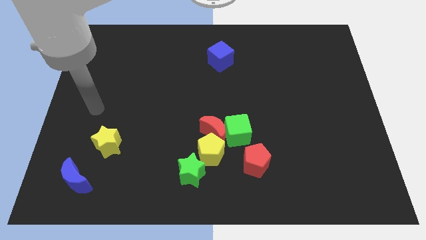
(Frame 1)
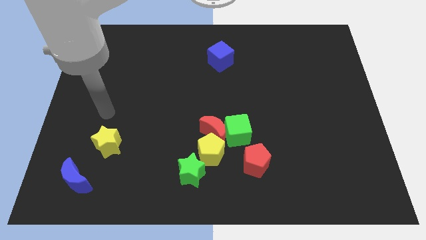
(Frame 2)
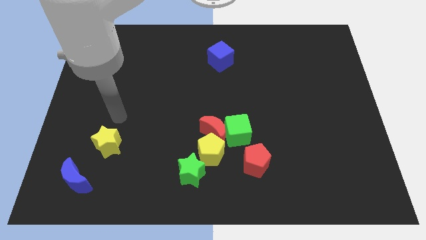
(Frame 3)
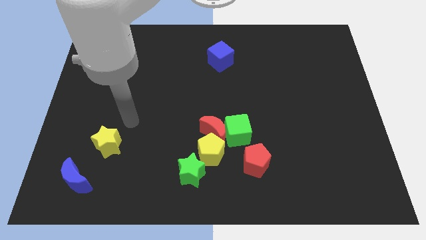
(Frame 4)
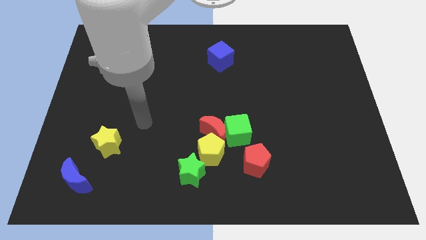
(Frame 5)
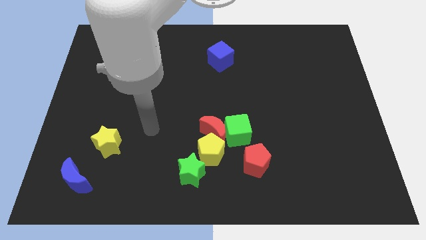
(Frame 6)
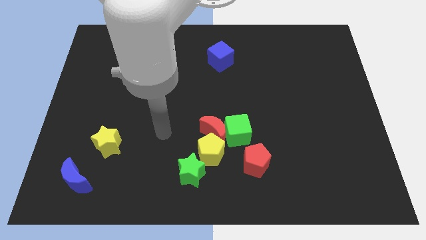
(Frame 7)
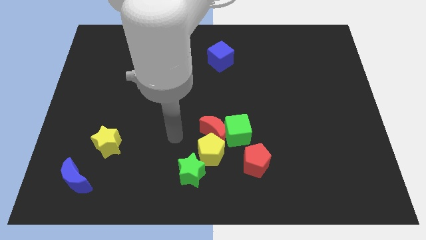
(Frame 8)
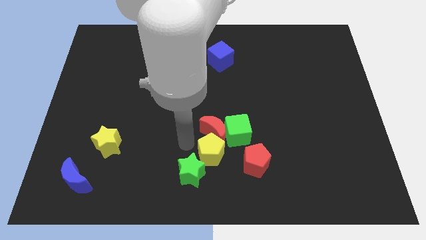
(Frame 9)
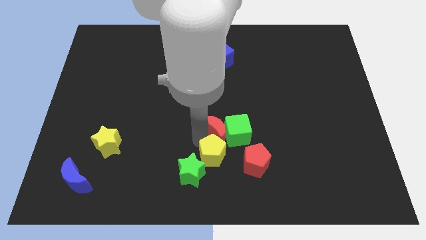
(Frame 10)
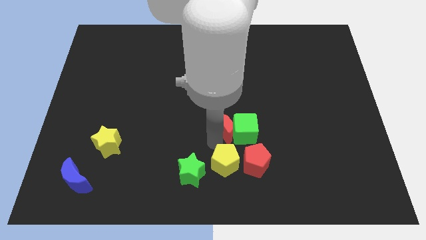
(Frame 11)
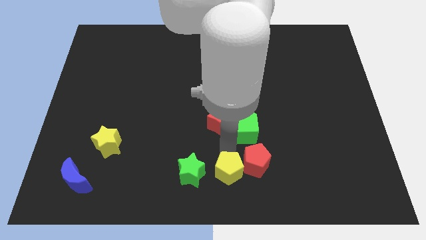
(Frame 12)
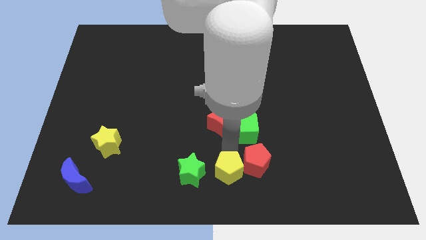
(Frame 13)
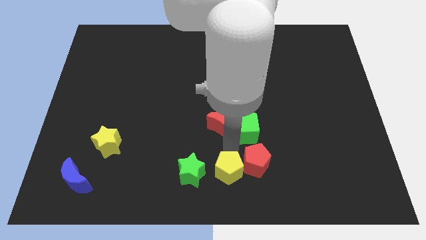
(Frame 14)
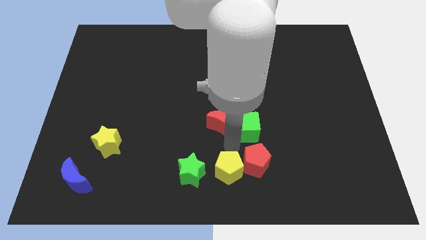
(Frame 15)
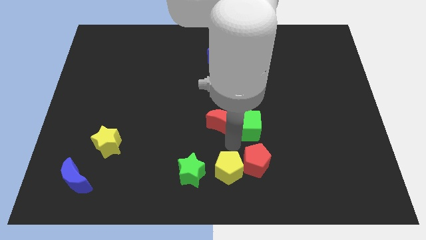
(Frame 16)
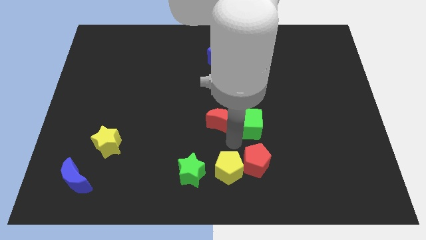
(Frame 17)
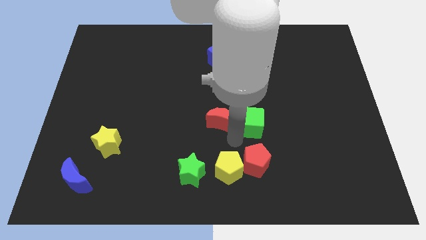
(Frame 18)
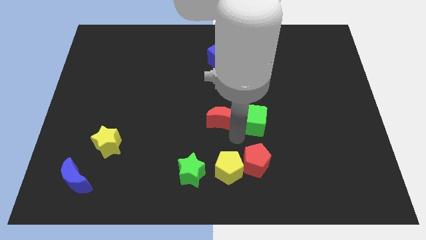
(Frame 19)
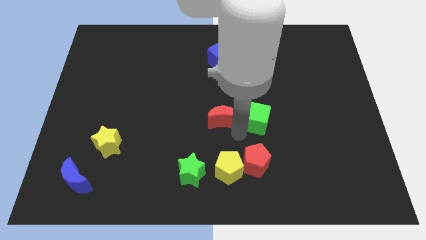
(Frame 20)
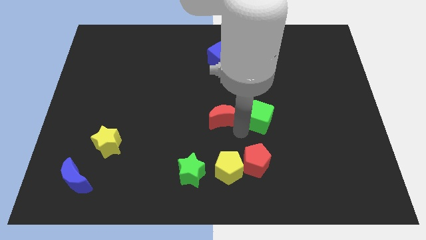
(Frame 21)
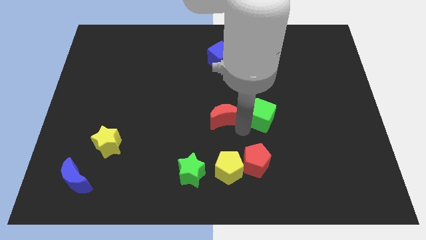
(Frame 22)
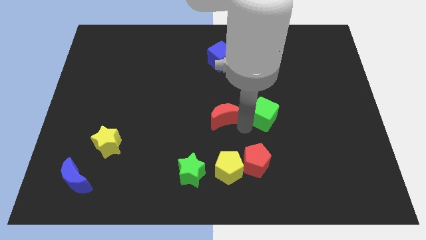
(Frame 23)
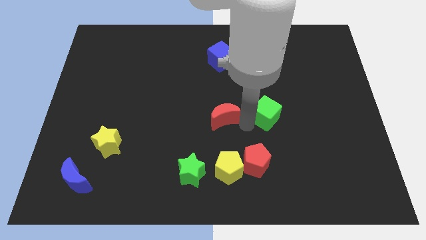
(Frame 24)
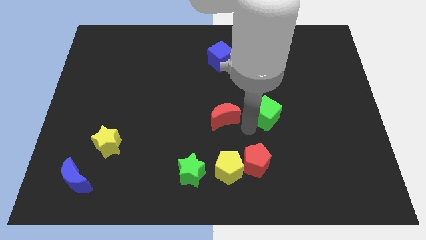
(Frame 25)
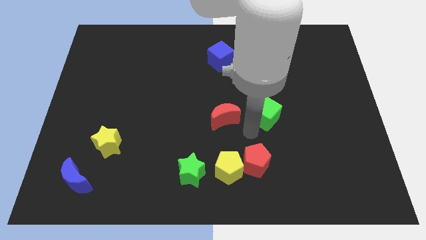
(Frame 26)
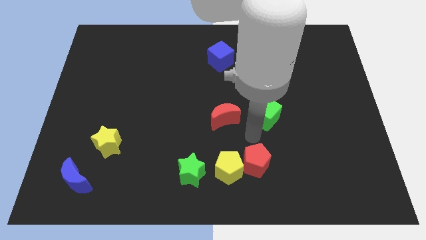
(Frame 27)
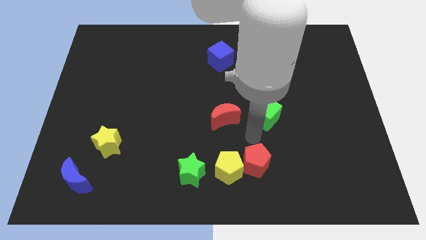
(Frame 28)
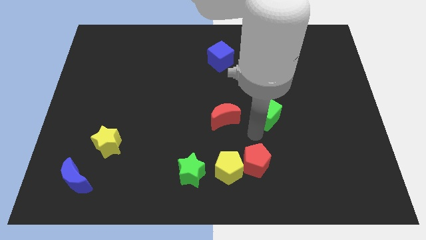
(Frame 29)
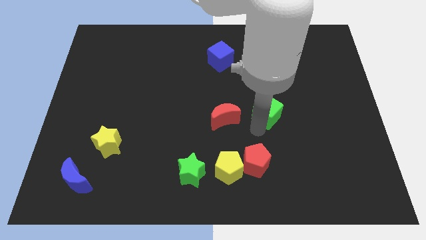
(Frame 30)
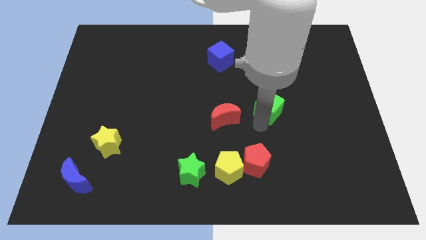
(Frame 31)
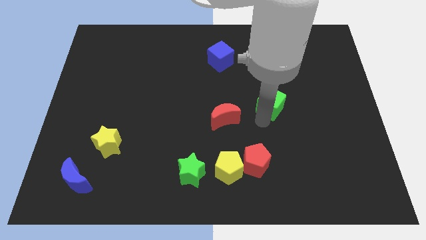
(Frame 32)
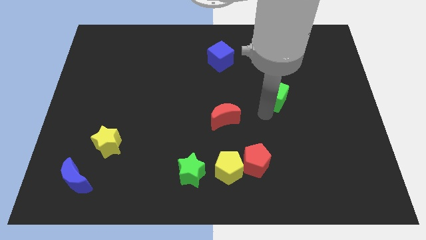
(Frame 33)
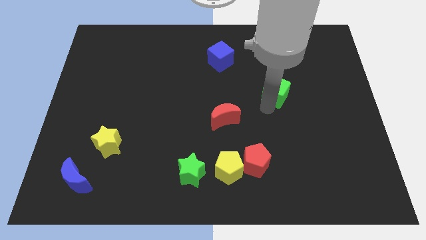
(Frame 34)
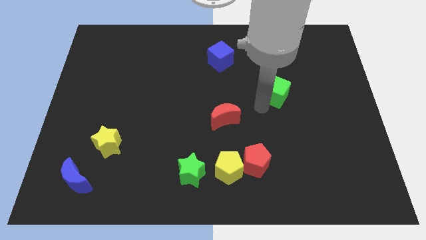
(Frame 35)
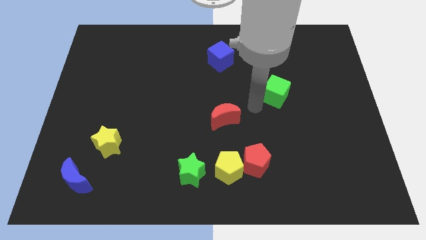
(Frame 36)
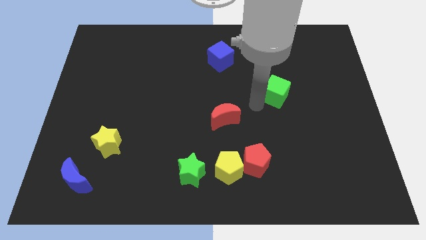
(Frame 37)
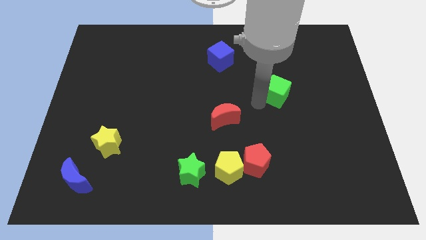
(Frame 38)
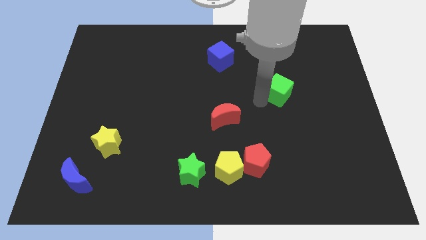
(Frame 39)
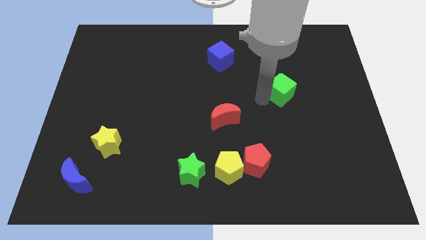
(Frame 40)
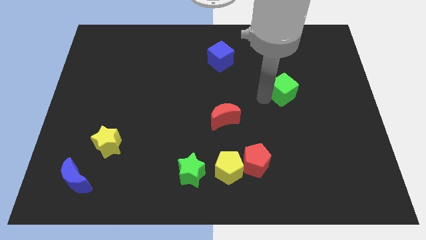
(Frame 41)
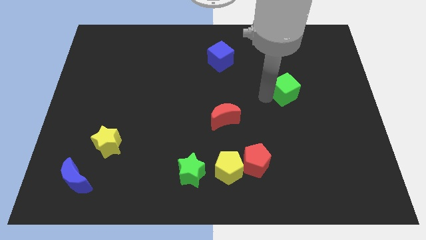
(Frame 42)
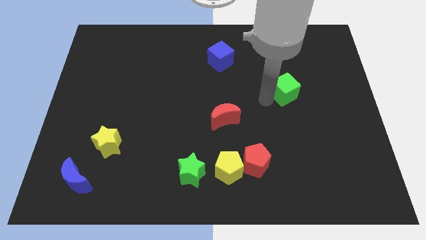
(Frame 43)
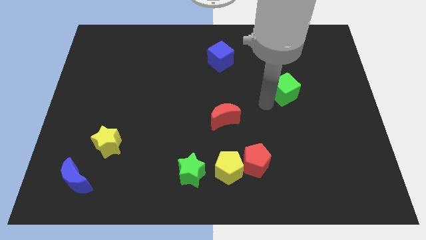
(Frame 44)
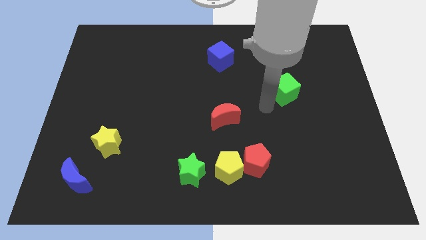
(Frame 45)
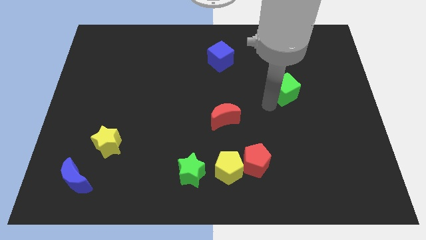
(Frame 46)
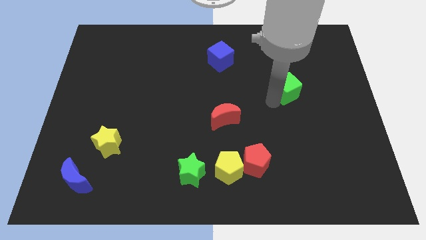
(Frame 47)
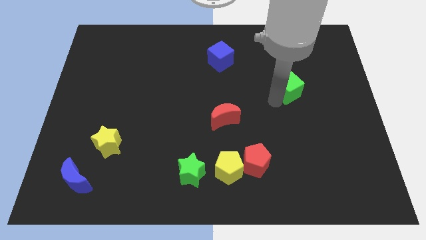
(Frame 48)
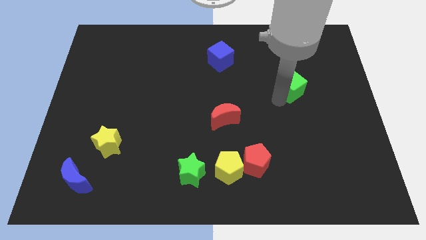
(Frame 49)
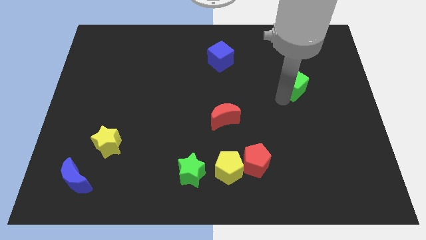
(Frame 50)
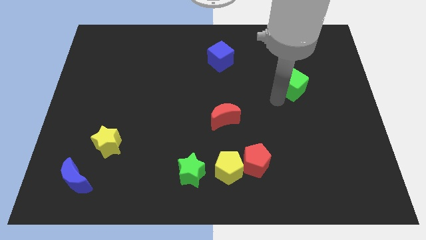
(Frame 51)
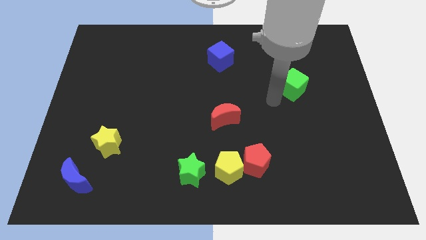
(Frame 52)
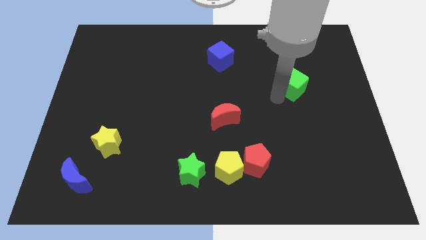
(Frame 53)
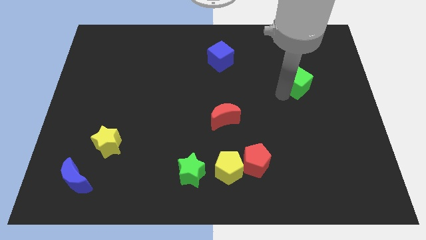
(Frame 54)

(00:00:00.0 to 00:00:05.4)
slide the green cube up and to the right

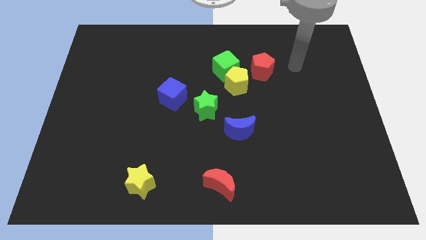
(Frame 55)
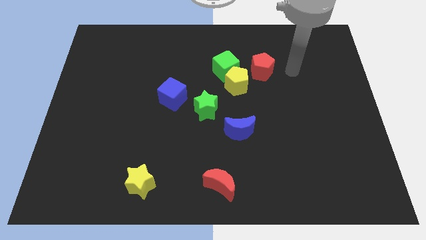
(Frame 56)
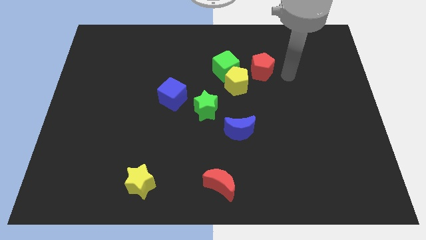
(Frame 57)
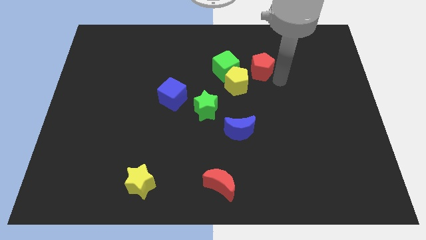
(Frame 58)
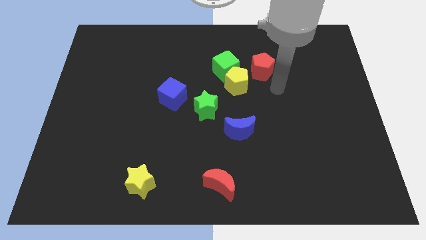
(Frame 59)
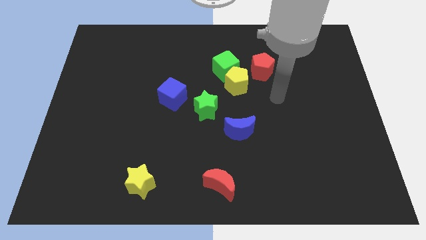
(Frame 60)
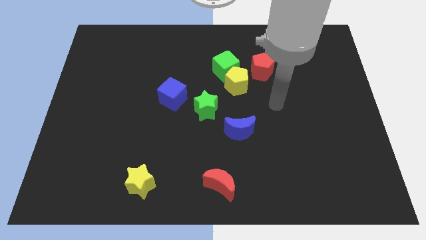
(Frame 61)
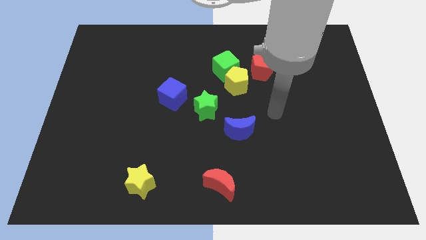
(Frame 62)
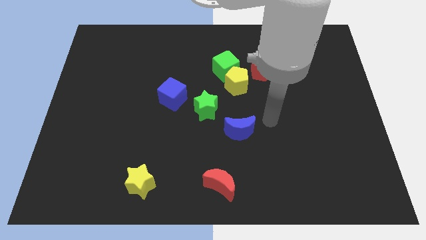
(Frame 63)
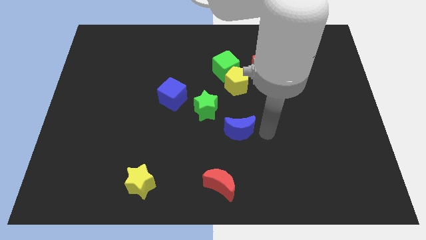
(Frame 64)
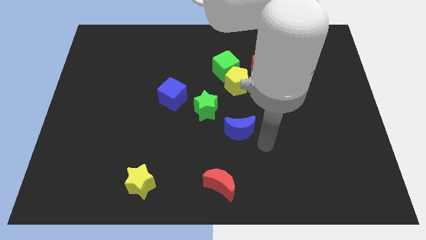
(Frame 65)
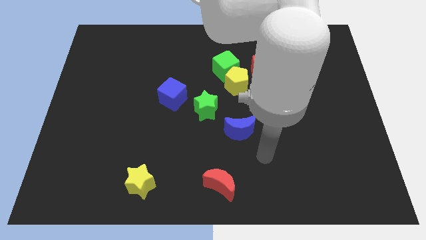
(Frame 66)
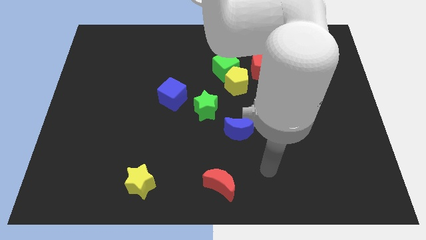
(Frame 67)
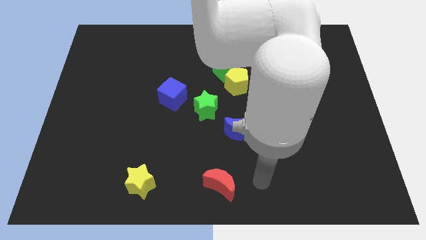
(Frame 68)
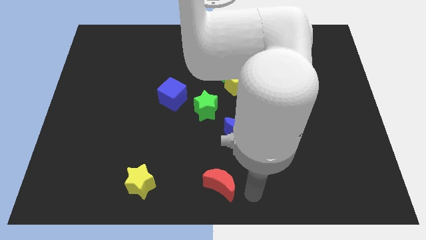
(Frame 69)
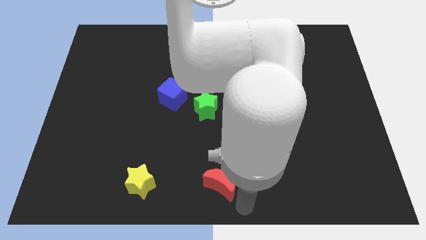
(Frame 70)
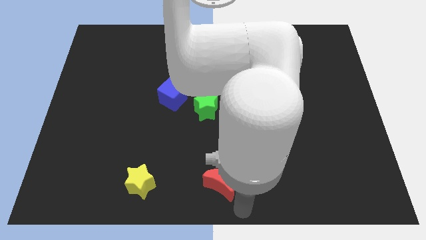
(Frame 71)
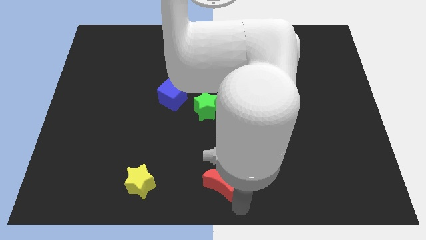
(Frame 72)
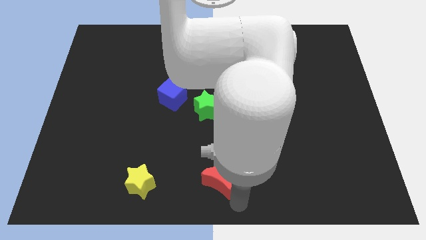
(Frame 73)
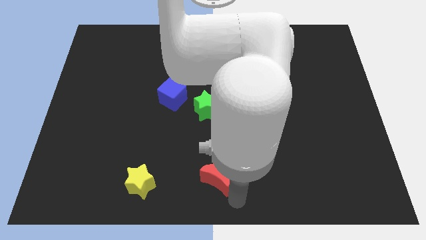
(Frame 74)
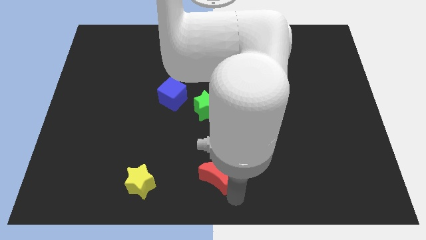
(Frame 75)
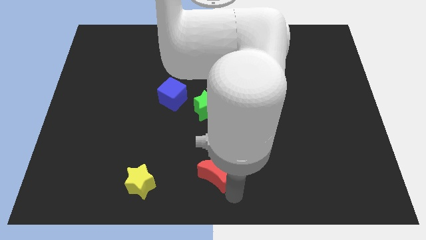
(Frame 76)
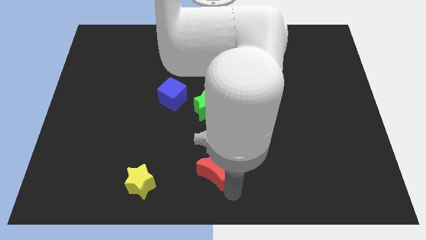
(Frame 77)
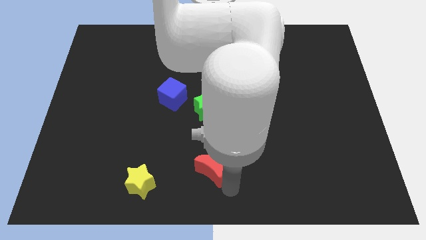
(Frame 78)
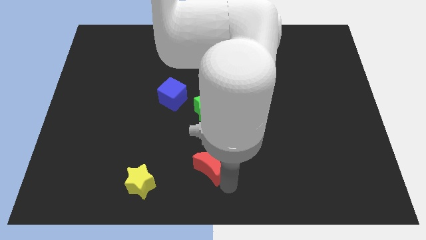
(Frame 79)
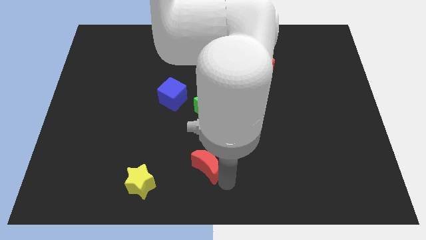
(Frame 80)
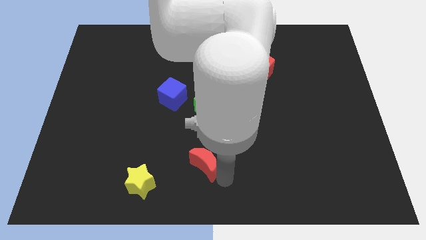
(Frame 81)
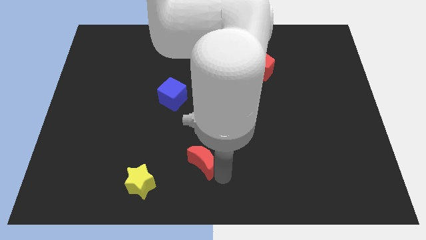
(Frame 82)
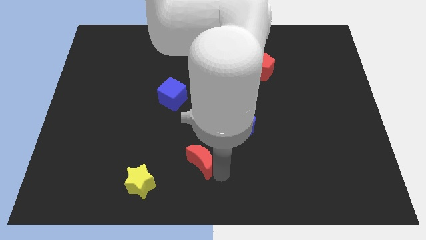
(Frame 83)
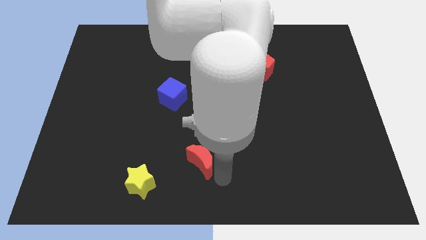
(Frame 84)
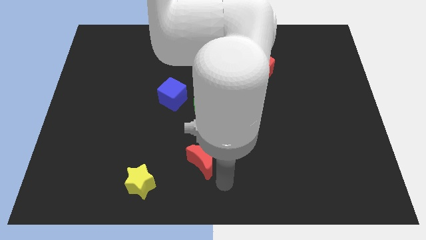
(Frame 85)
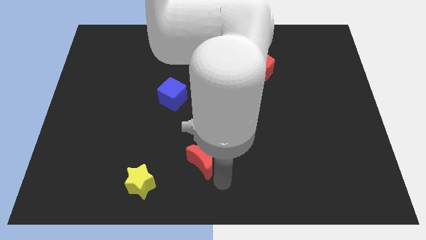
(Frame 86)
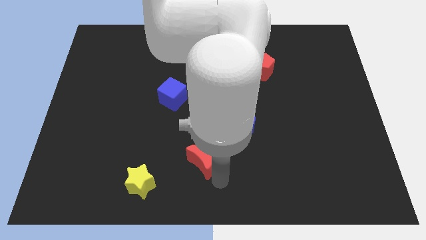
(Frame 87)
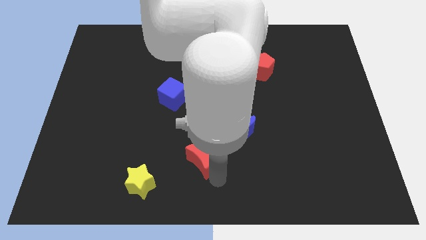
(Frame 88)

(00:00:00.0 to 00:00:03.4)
move the red moon upwards and then to the left a little bit
